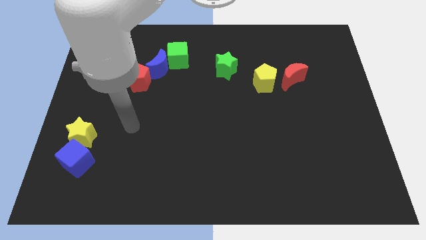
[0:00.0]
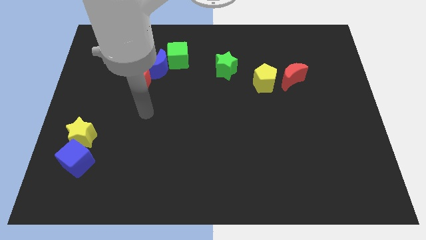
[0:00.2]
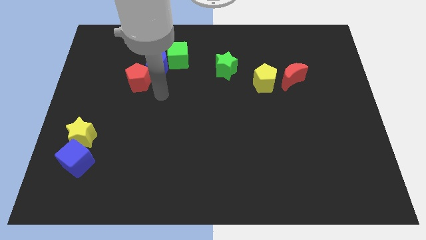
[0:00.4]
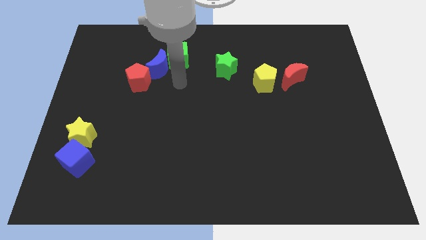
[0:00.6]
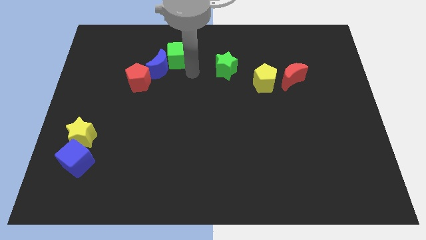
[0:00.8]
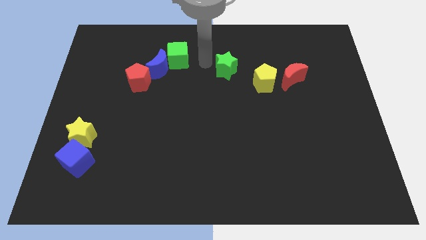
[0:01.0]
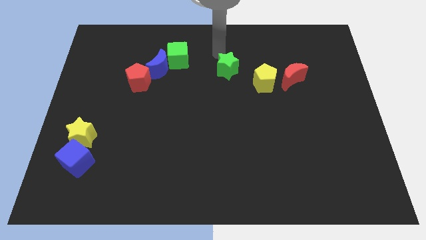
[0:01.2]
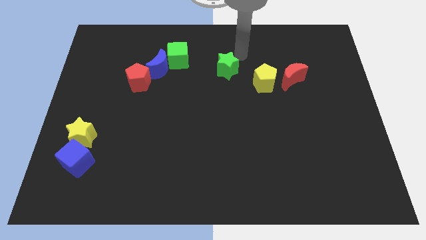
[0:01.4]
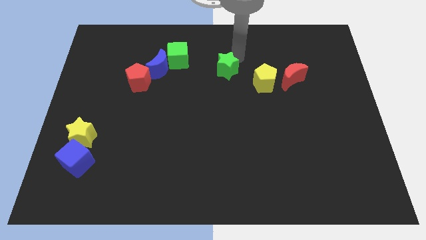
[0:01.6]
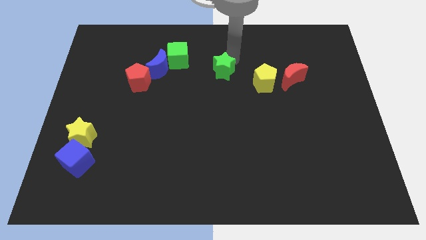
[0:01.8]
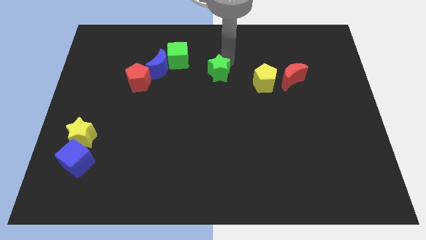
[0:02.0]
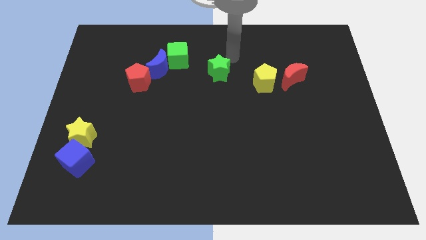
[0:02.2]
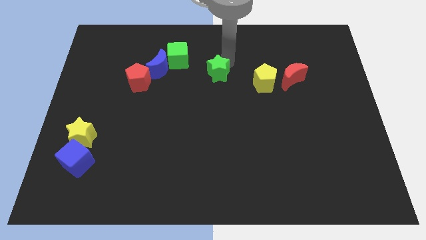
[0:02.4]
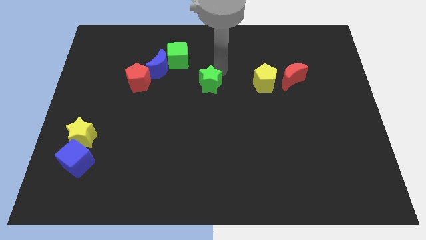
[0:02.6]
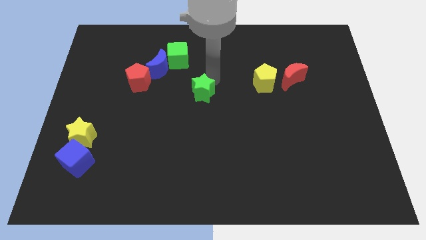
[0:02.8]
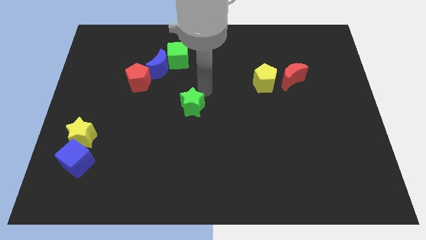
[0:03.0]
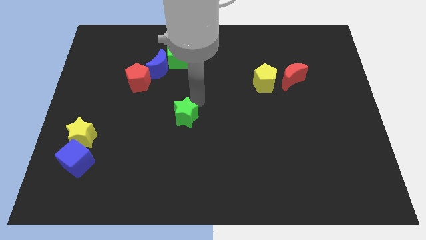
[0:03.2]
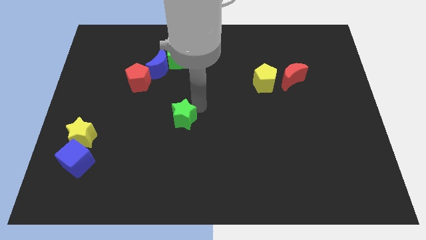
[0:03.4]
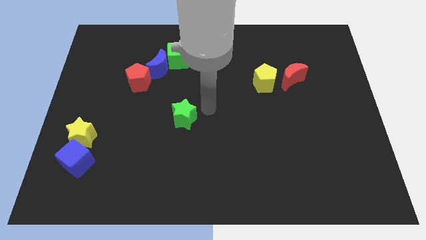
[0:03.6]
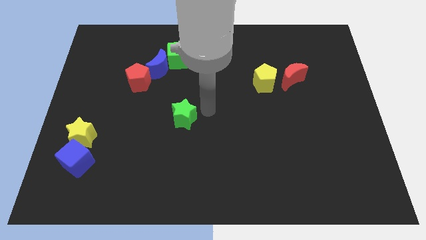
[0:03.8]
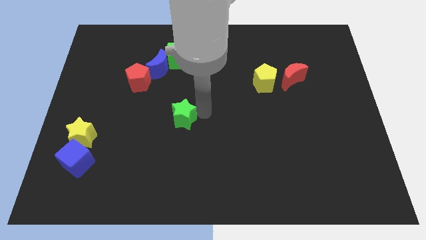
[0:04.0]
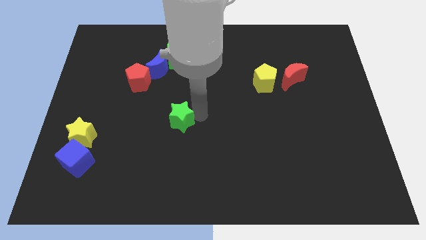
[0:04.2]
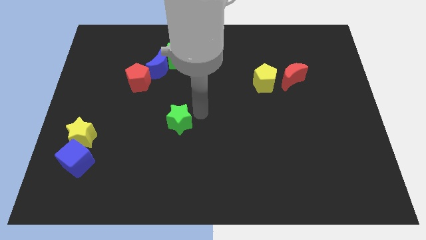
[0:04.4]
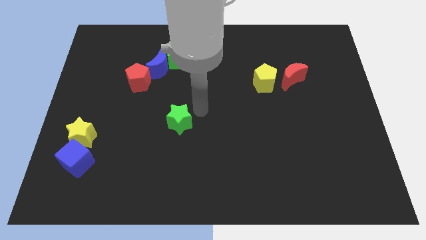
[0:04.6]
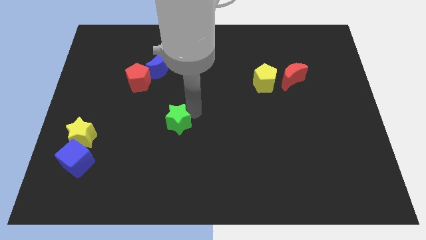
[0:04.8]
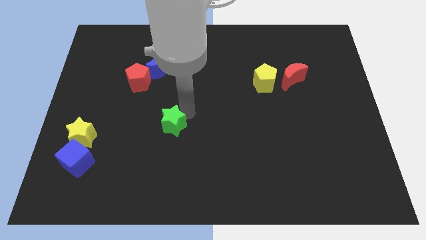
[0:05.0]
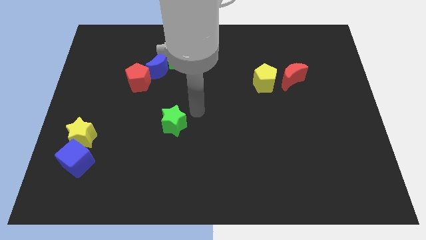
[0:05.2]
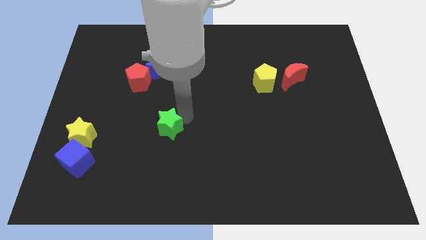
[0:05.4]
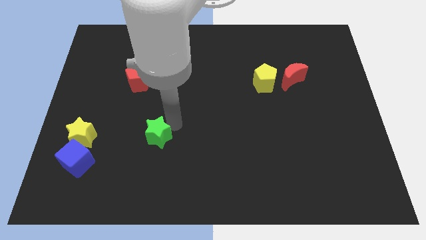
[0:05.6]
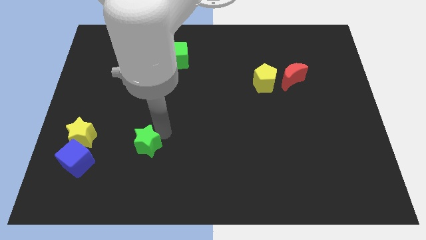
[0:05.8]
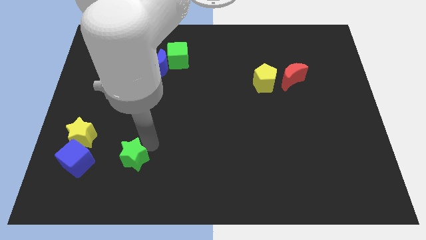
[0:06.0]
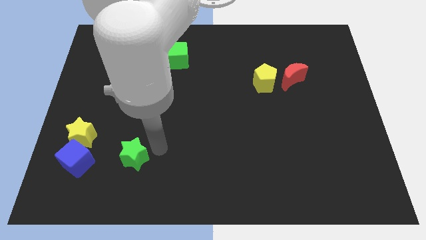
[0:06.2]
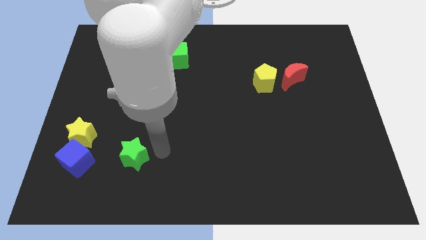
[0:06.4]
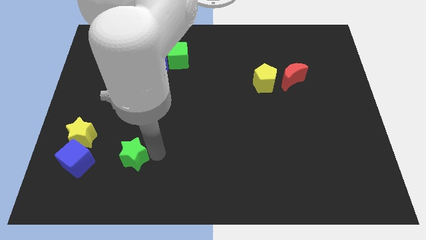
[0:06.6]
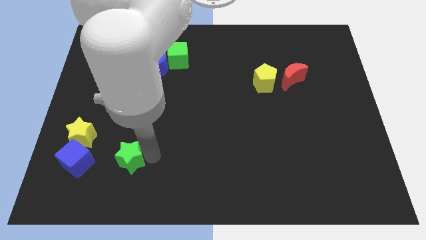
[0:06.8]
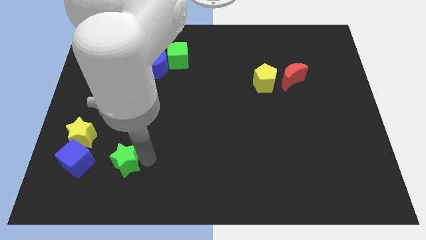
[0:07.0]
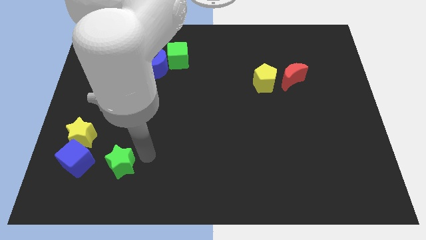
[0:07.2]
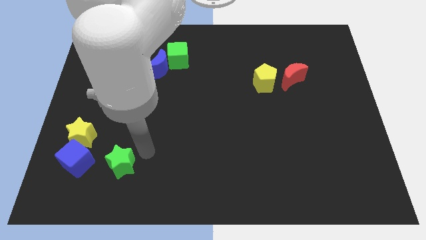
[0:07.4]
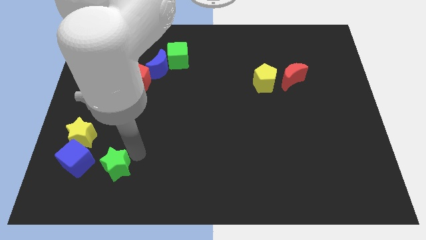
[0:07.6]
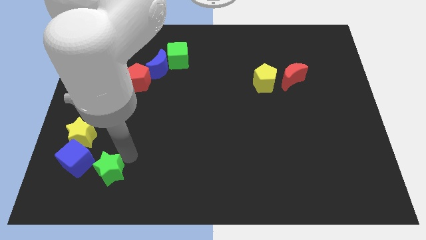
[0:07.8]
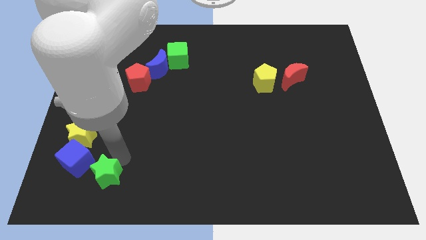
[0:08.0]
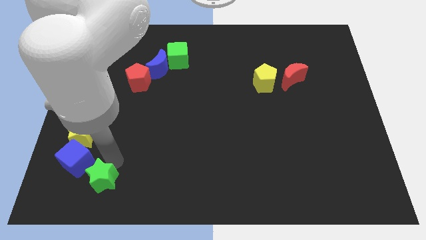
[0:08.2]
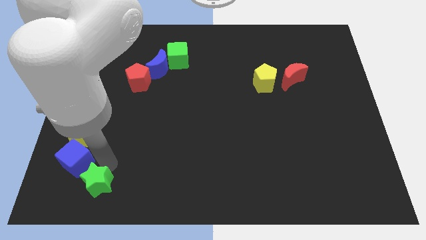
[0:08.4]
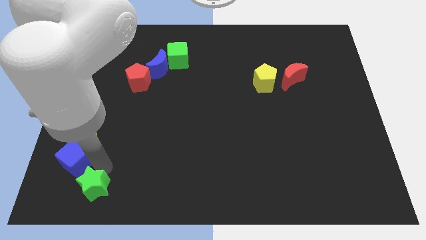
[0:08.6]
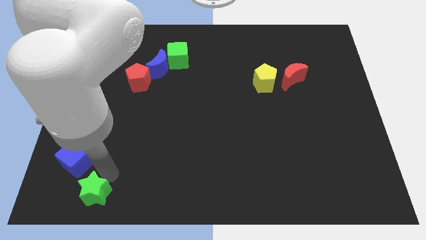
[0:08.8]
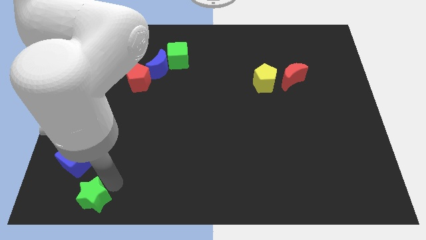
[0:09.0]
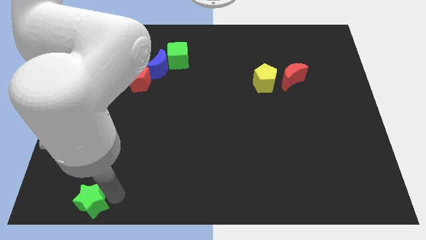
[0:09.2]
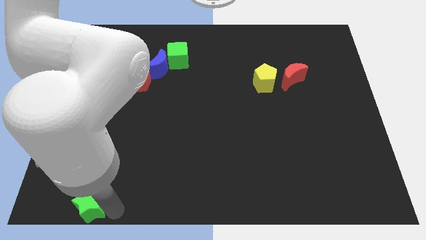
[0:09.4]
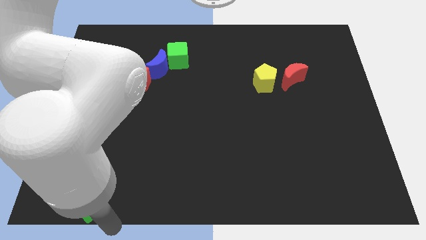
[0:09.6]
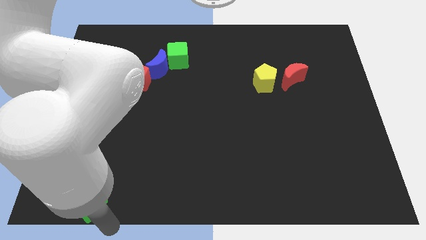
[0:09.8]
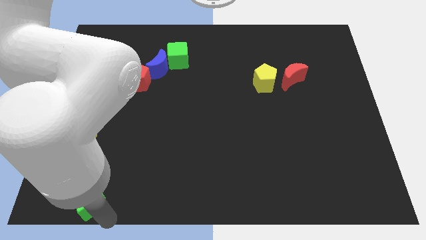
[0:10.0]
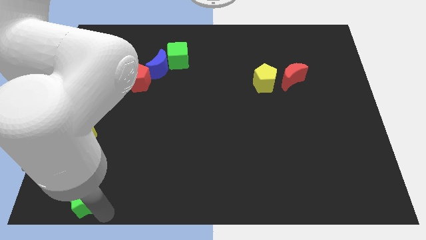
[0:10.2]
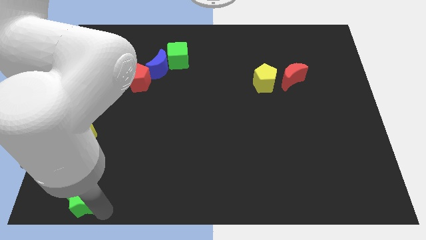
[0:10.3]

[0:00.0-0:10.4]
put the green star to the bottom left corner
